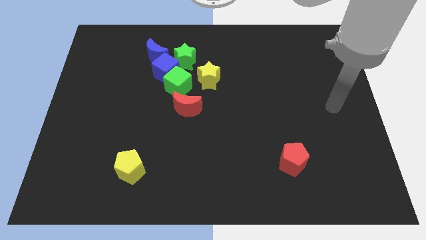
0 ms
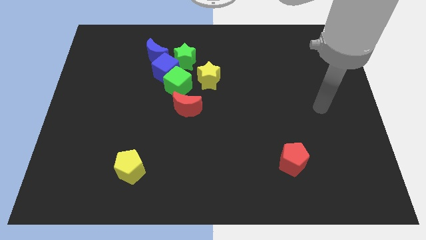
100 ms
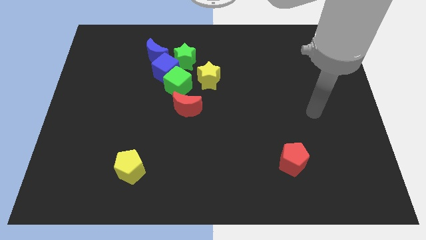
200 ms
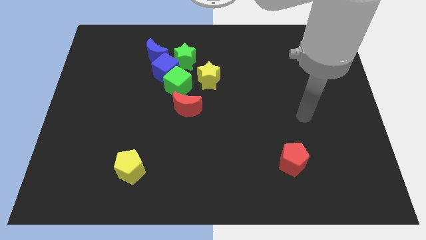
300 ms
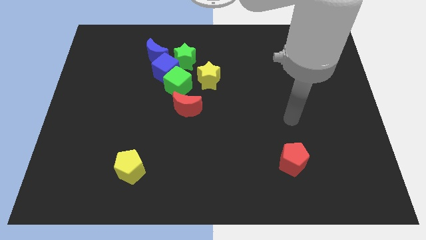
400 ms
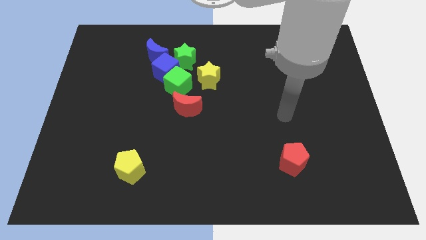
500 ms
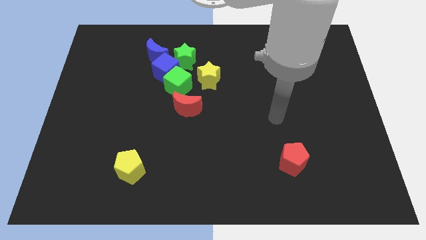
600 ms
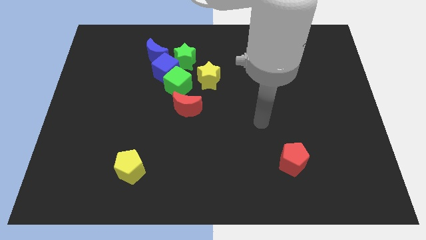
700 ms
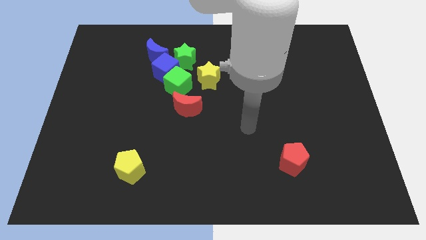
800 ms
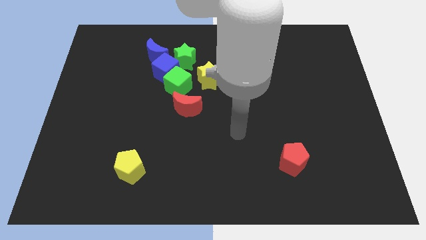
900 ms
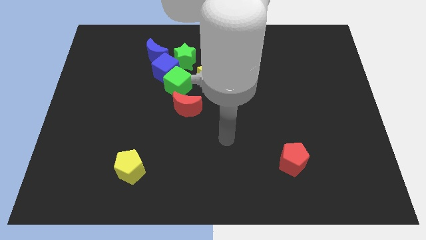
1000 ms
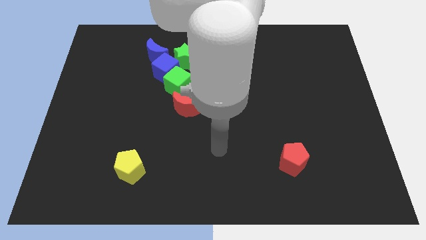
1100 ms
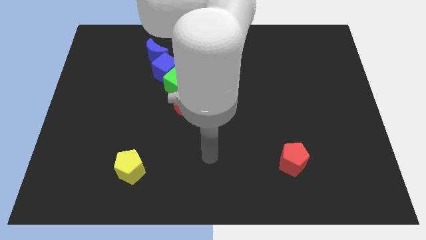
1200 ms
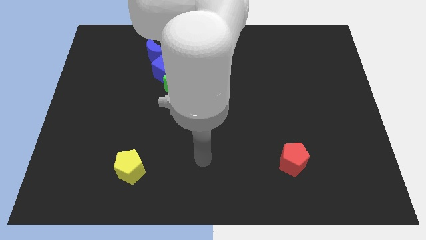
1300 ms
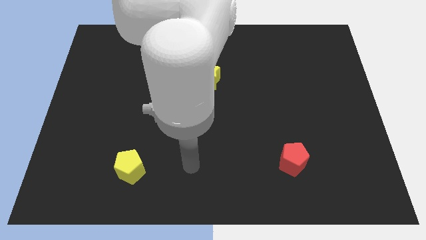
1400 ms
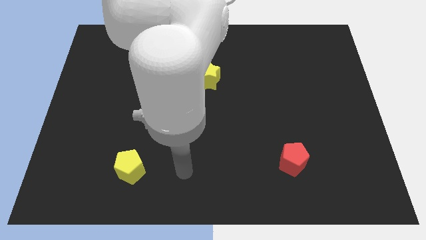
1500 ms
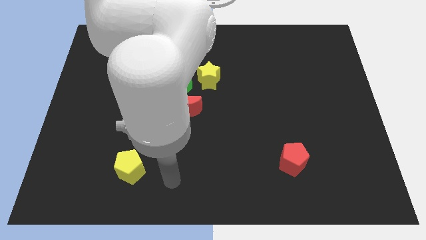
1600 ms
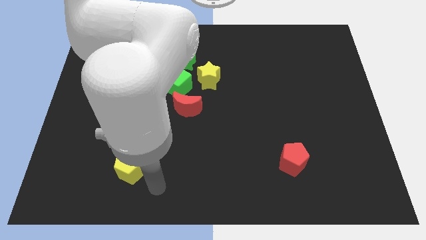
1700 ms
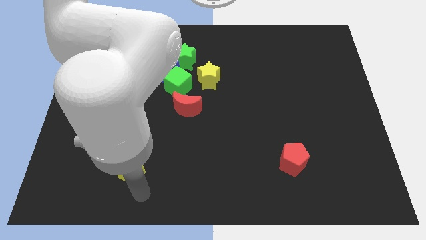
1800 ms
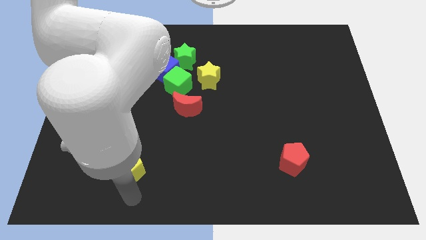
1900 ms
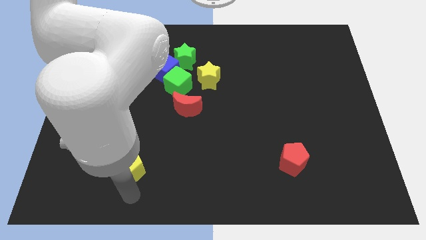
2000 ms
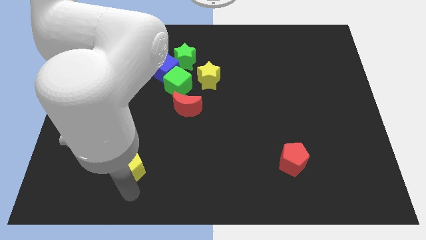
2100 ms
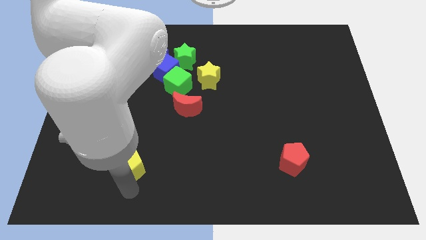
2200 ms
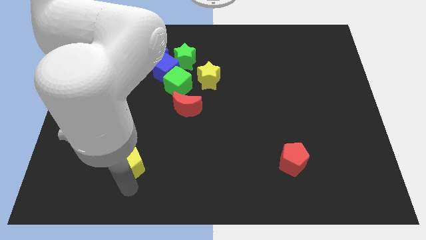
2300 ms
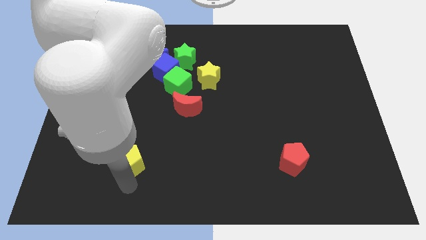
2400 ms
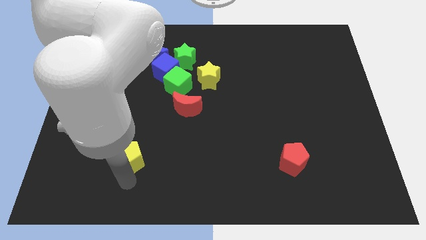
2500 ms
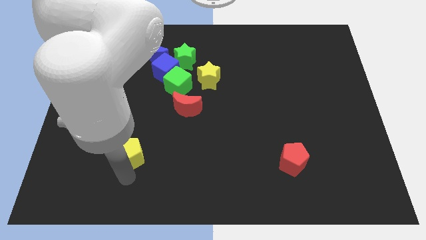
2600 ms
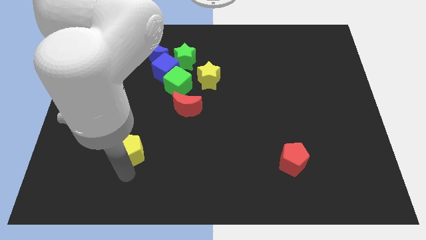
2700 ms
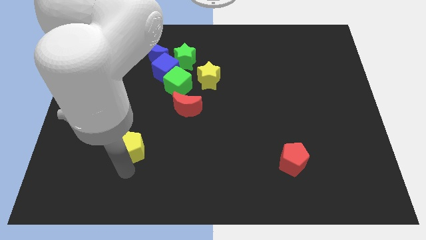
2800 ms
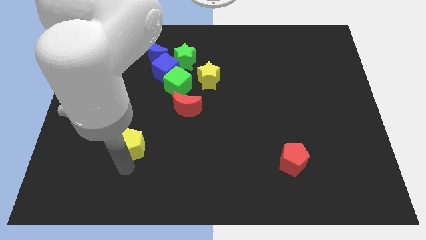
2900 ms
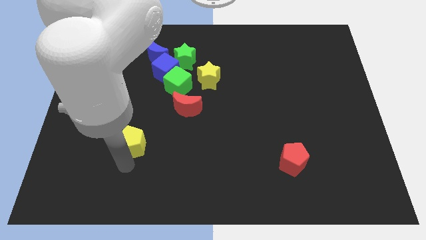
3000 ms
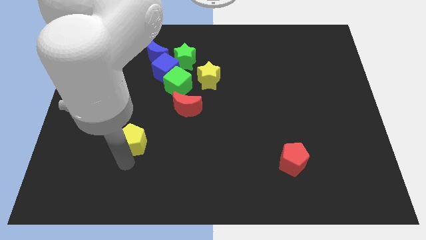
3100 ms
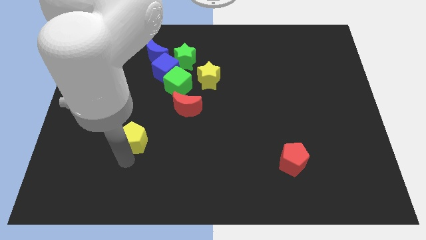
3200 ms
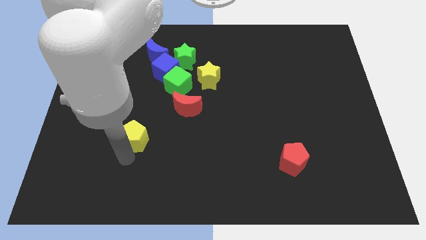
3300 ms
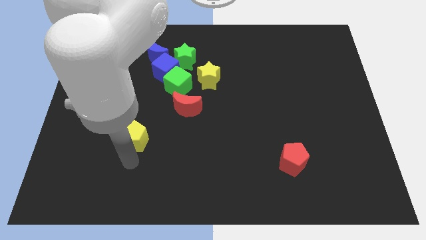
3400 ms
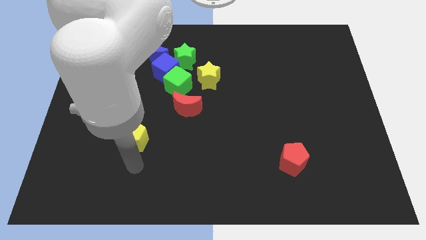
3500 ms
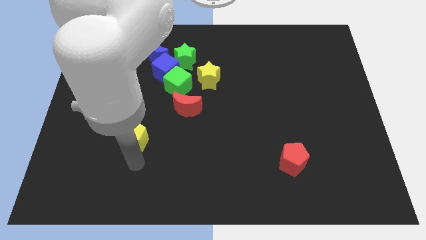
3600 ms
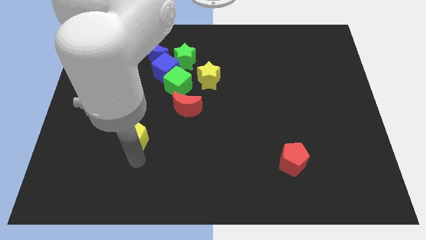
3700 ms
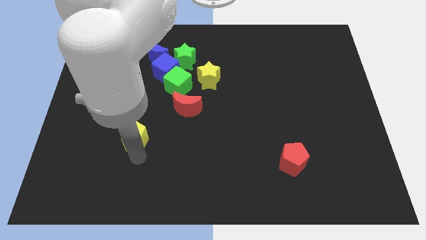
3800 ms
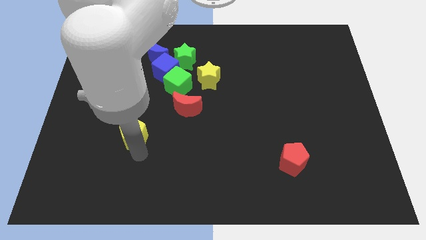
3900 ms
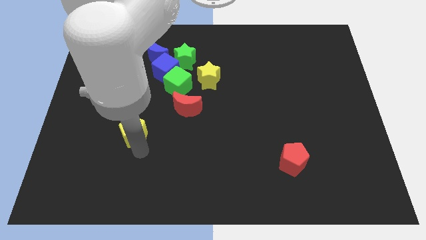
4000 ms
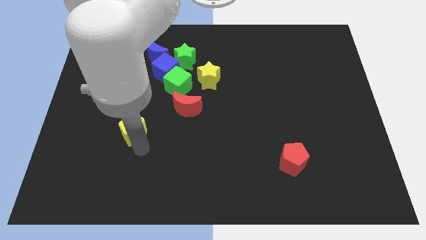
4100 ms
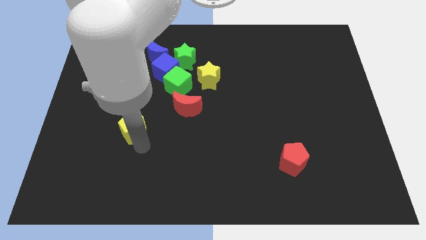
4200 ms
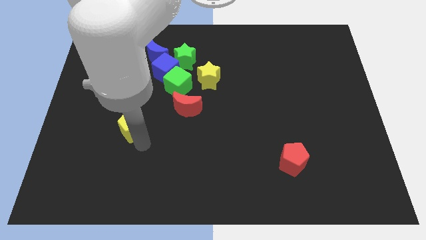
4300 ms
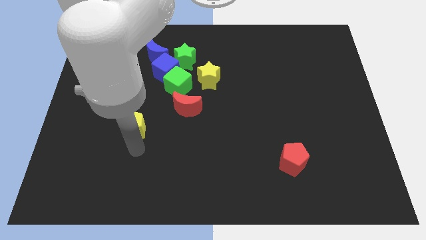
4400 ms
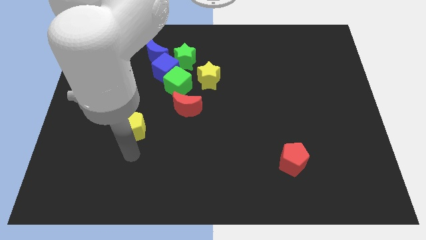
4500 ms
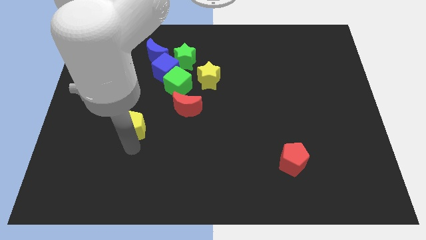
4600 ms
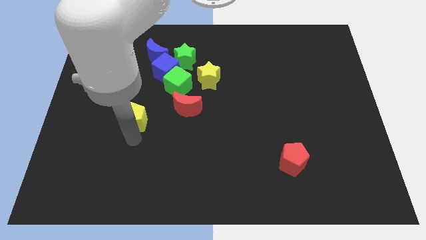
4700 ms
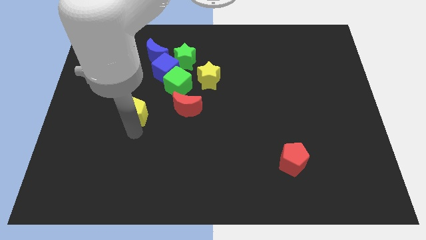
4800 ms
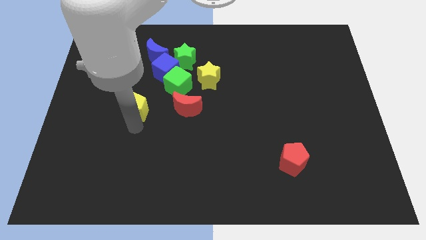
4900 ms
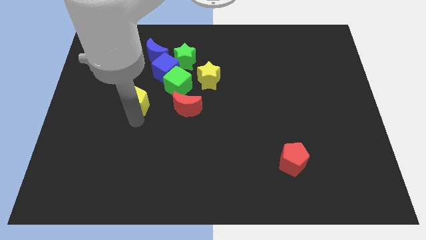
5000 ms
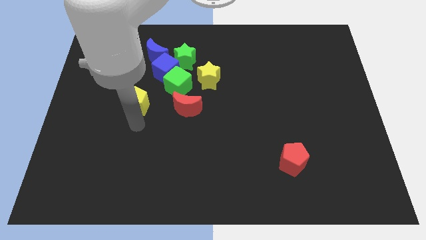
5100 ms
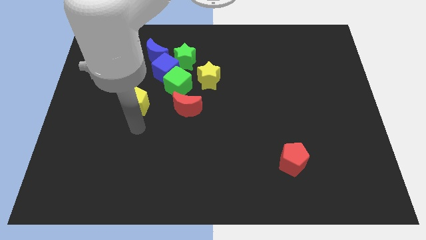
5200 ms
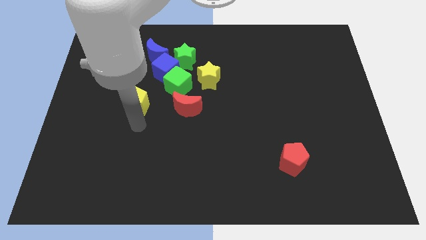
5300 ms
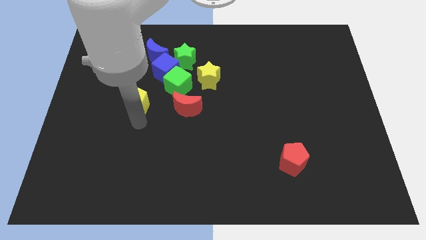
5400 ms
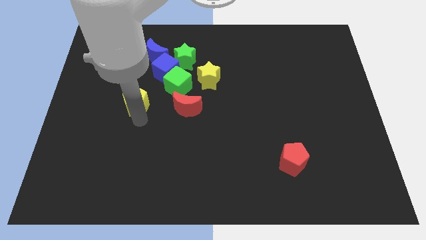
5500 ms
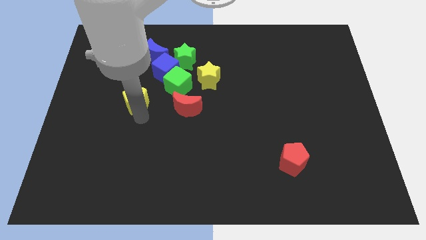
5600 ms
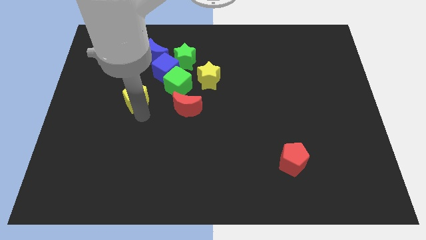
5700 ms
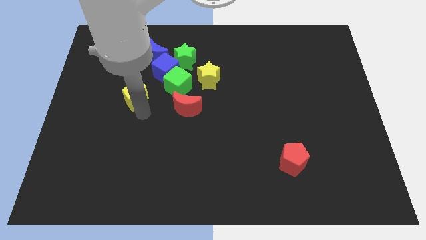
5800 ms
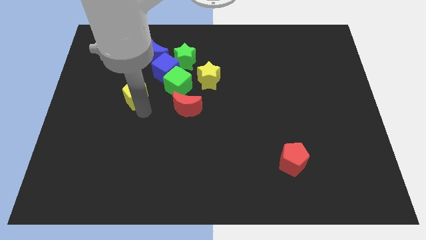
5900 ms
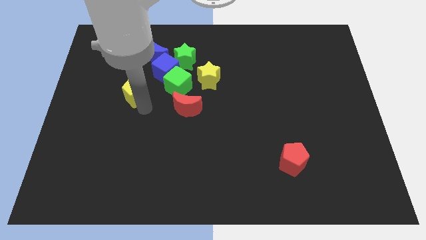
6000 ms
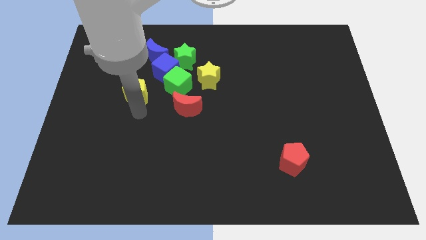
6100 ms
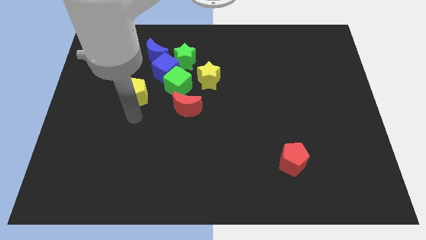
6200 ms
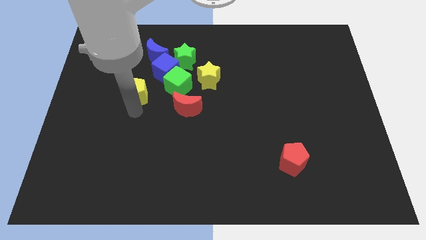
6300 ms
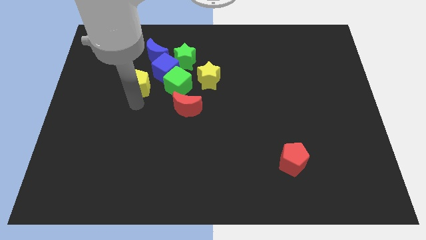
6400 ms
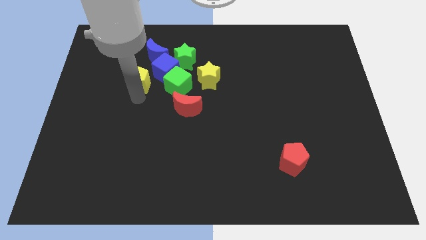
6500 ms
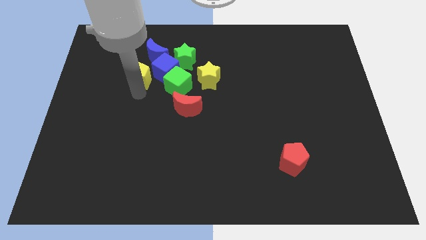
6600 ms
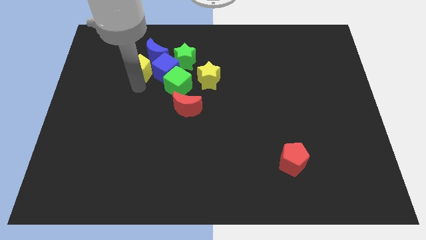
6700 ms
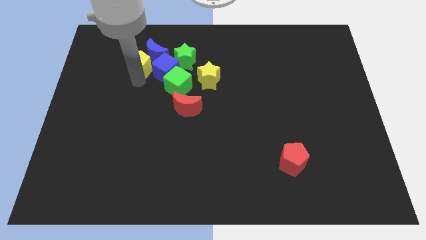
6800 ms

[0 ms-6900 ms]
push the yellow pentagon next to the blue moon
